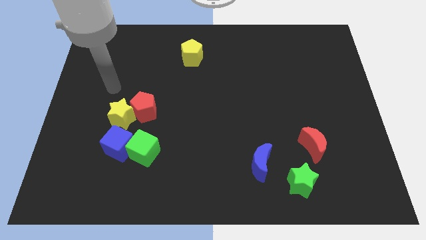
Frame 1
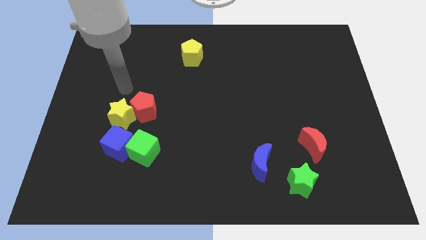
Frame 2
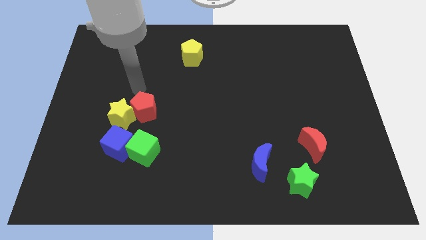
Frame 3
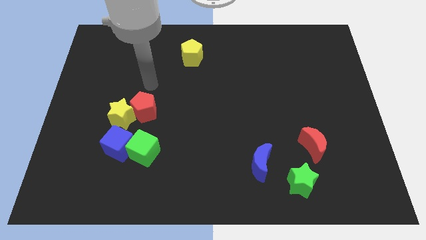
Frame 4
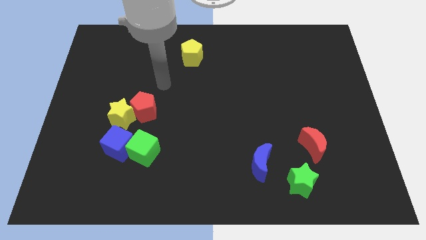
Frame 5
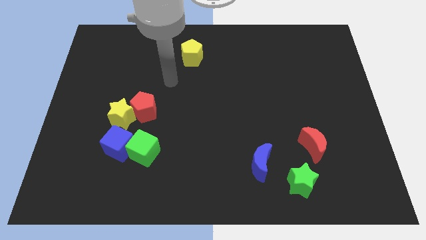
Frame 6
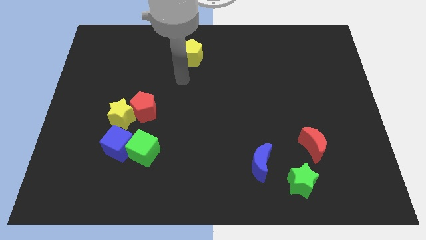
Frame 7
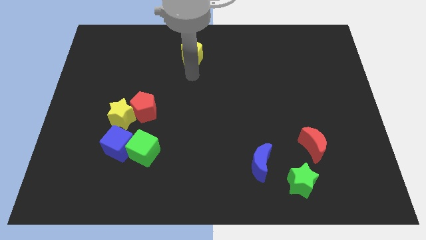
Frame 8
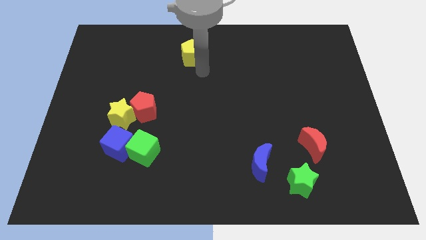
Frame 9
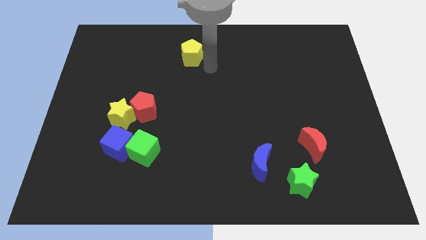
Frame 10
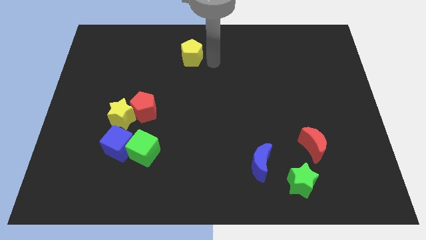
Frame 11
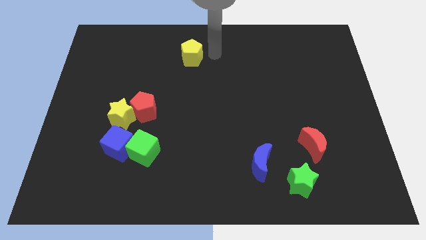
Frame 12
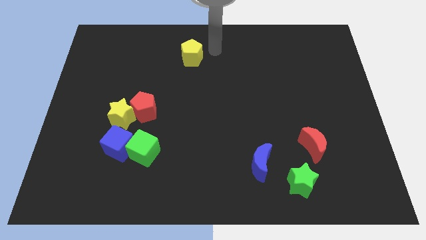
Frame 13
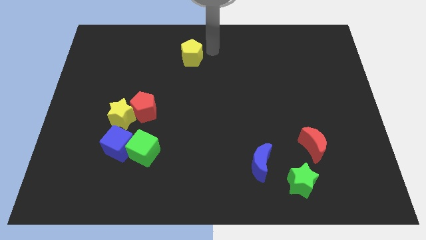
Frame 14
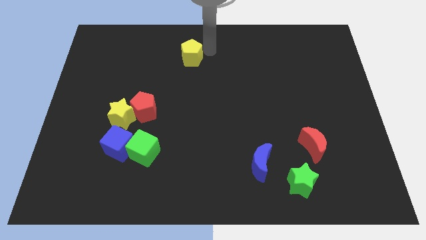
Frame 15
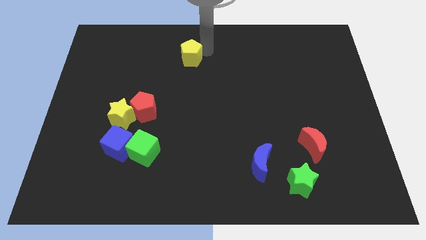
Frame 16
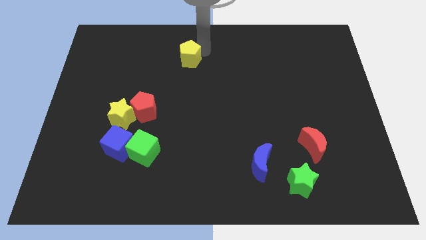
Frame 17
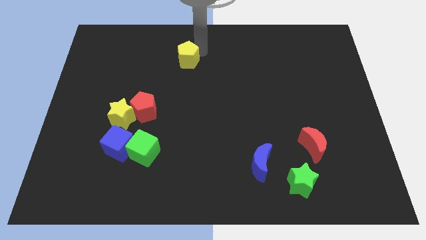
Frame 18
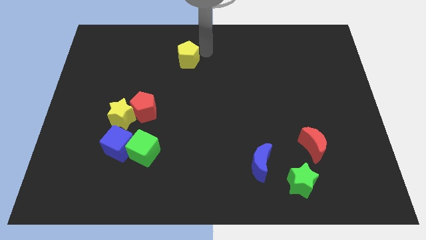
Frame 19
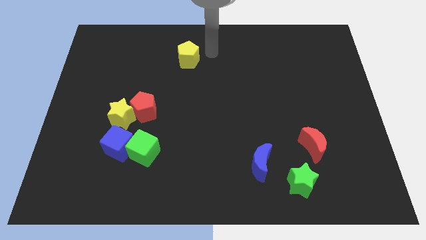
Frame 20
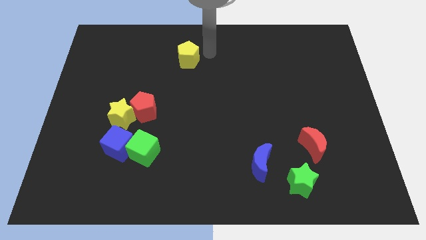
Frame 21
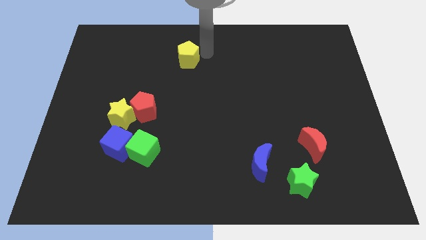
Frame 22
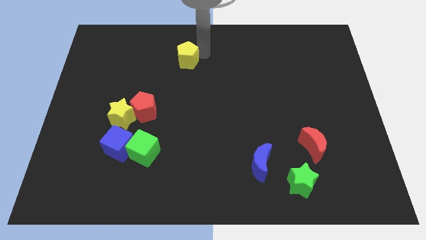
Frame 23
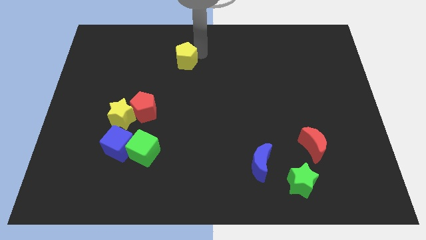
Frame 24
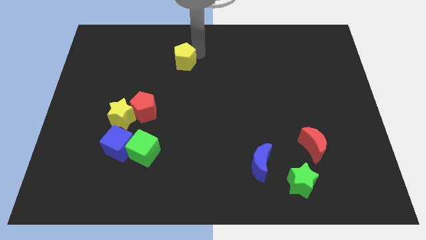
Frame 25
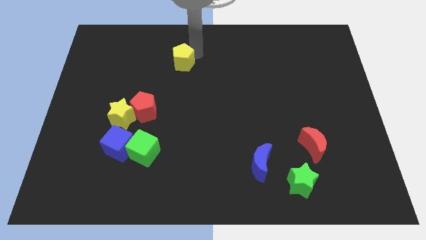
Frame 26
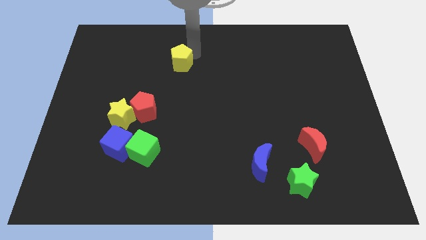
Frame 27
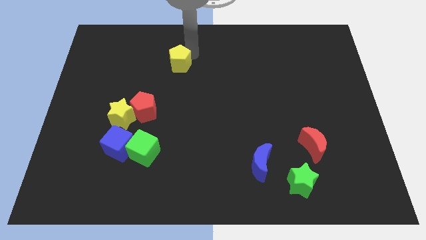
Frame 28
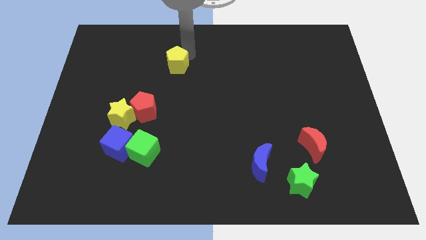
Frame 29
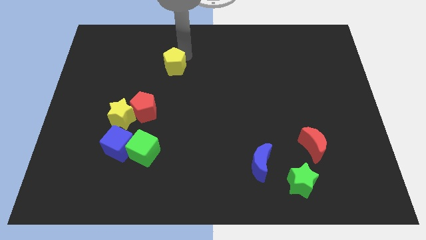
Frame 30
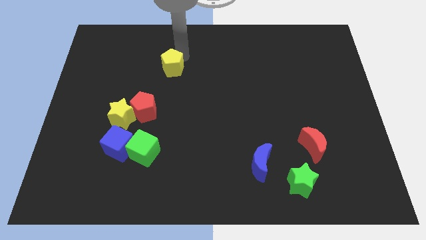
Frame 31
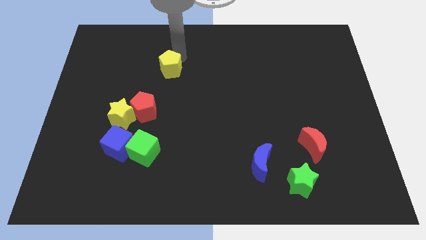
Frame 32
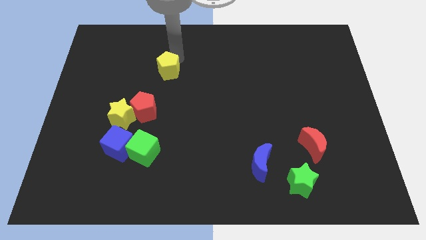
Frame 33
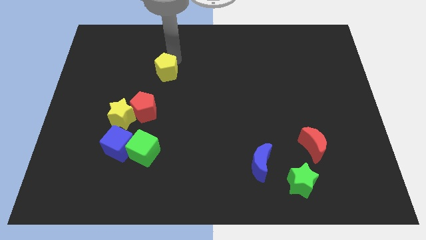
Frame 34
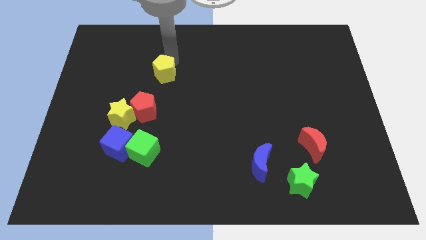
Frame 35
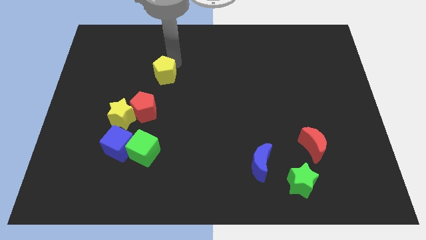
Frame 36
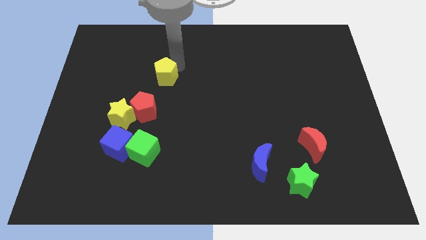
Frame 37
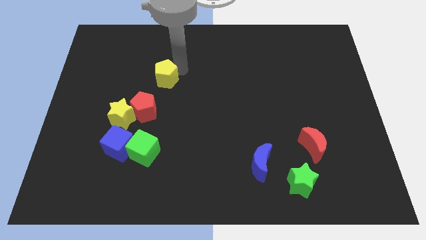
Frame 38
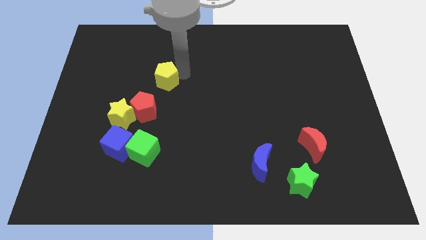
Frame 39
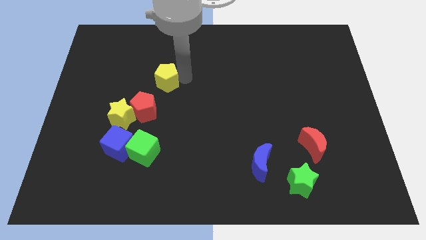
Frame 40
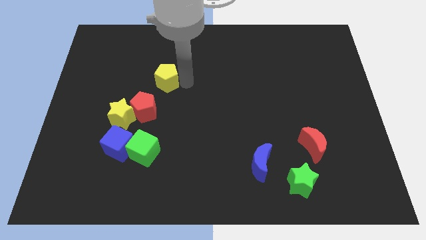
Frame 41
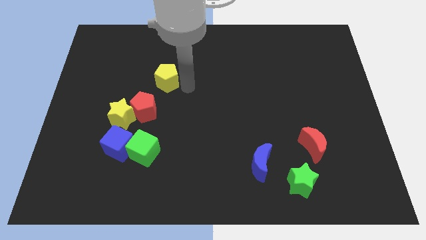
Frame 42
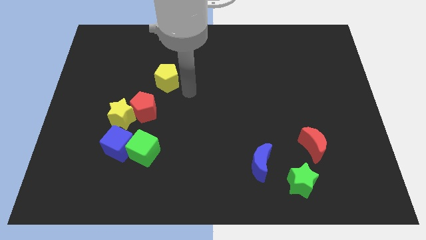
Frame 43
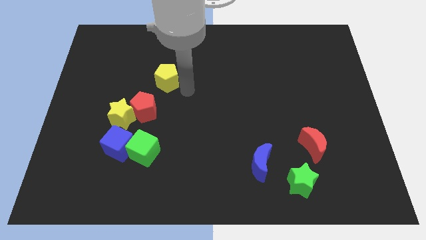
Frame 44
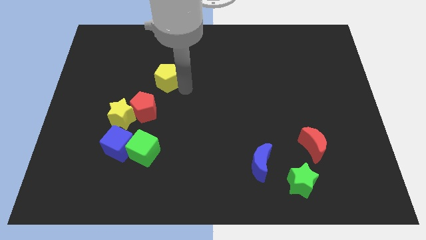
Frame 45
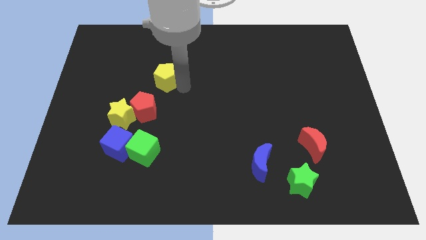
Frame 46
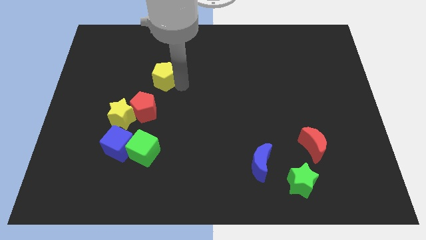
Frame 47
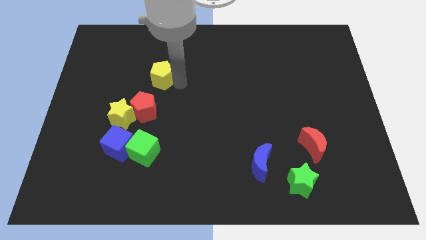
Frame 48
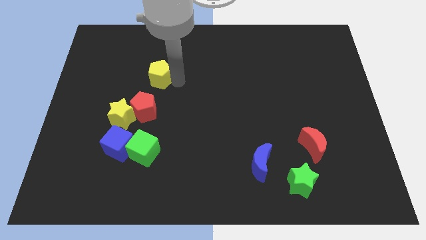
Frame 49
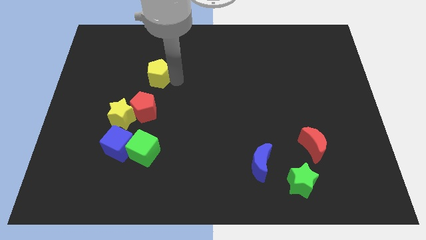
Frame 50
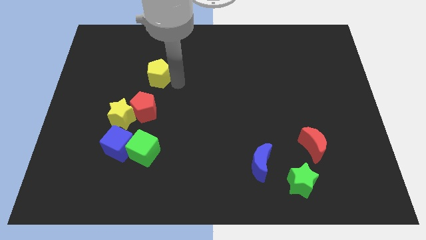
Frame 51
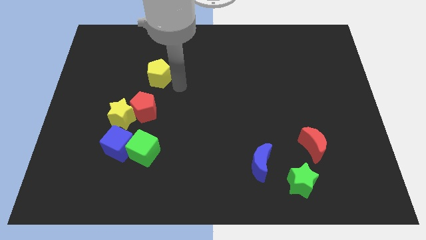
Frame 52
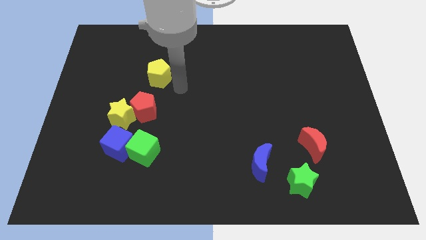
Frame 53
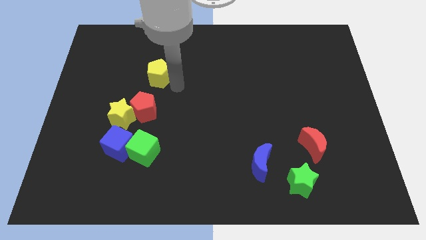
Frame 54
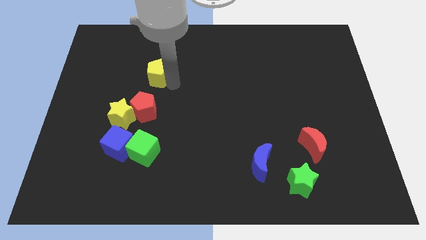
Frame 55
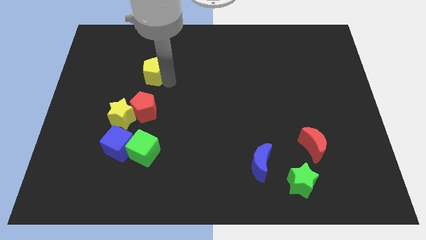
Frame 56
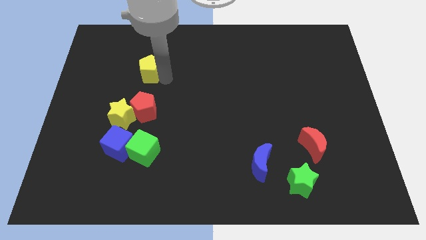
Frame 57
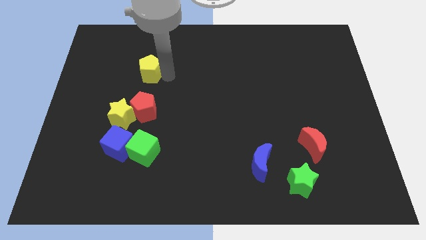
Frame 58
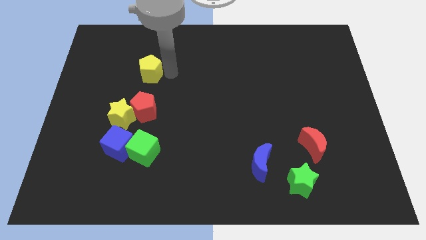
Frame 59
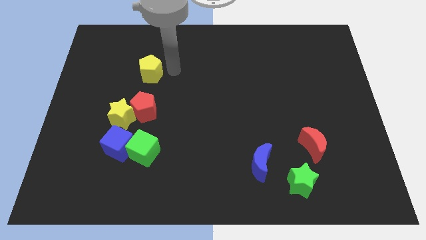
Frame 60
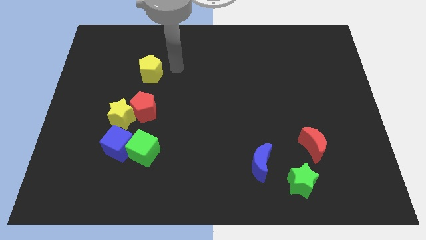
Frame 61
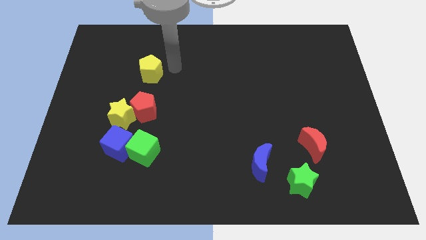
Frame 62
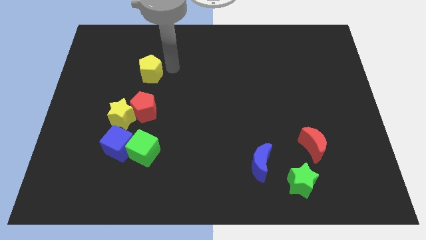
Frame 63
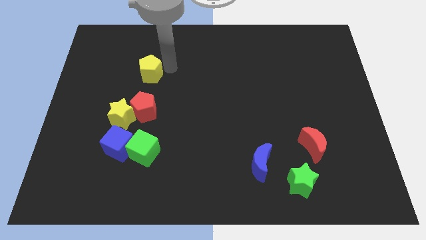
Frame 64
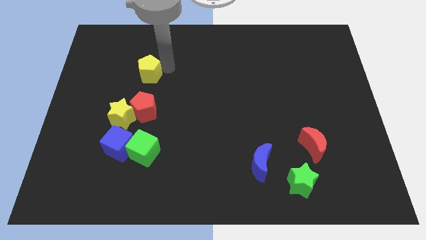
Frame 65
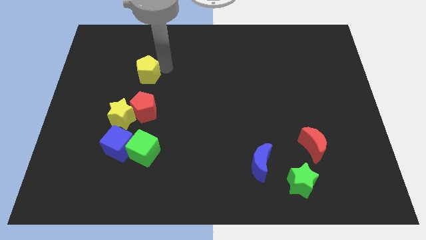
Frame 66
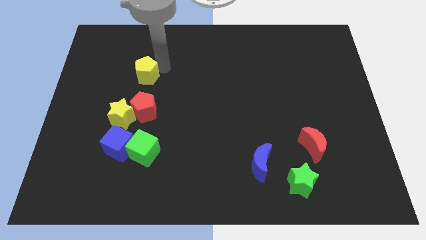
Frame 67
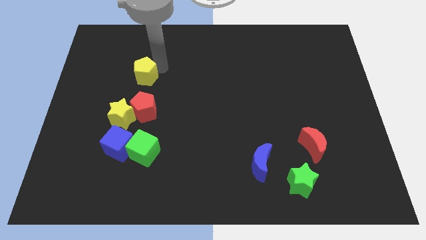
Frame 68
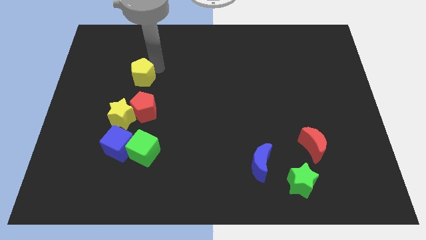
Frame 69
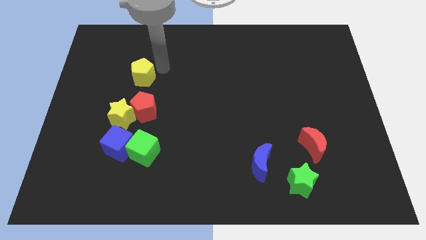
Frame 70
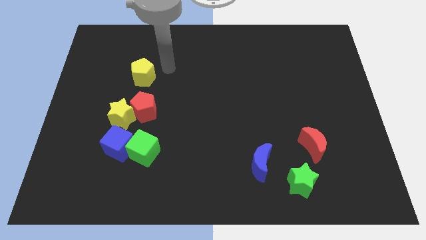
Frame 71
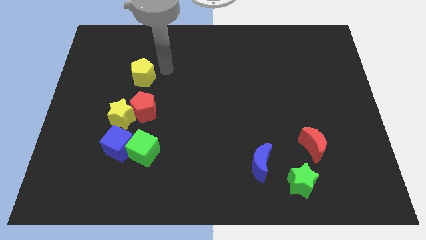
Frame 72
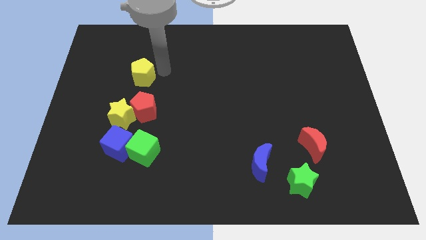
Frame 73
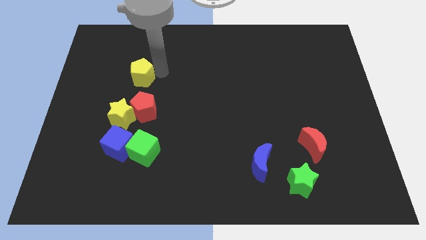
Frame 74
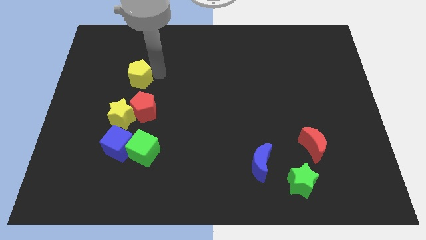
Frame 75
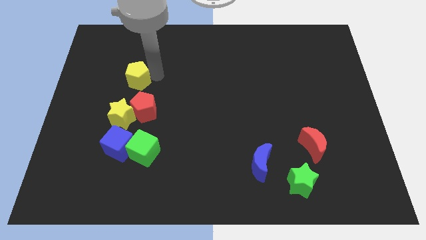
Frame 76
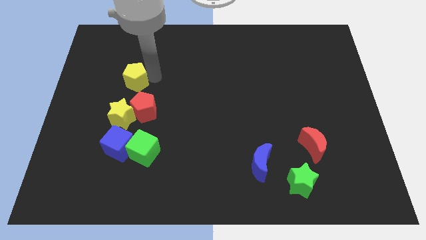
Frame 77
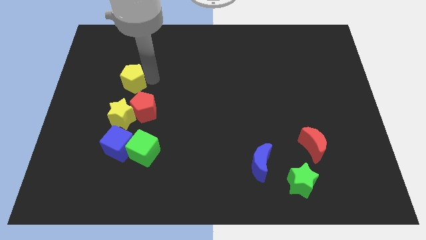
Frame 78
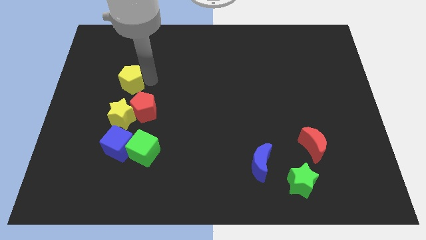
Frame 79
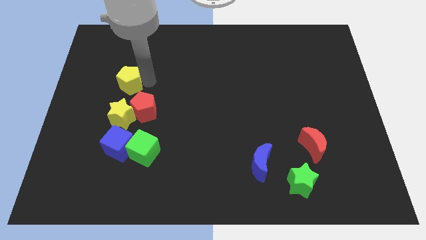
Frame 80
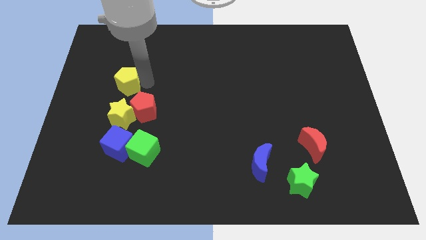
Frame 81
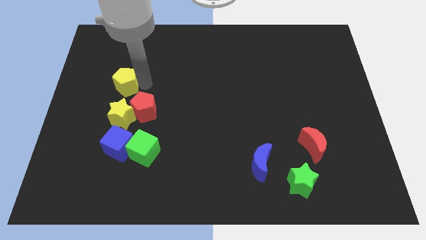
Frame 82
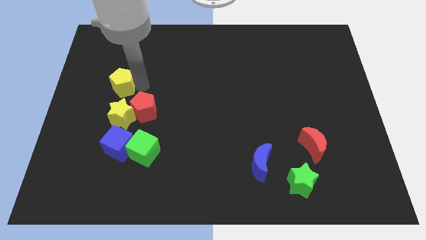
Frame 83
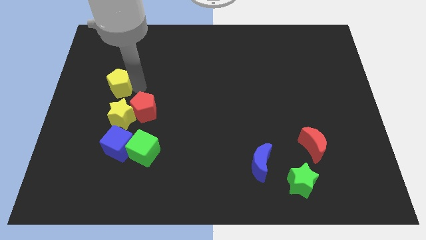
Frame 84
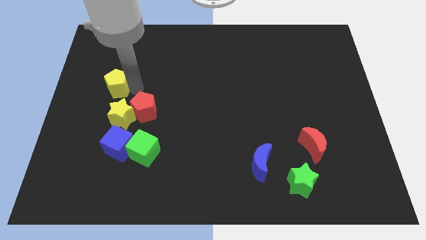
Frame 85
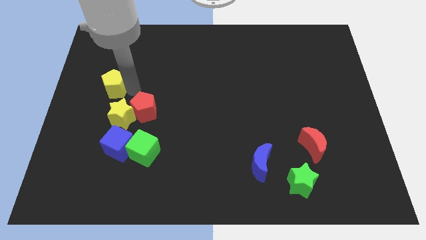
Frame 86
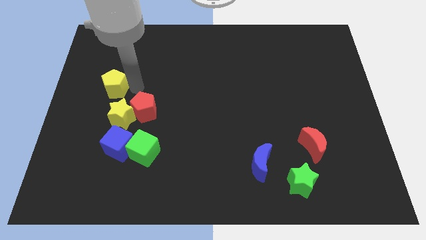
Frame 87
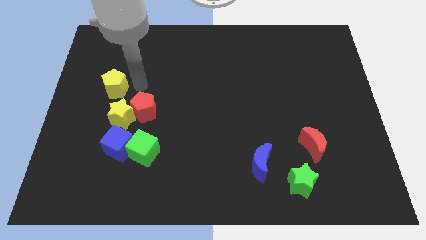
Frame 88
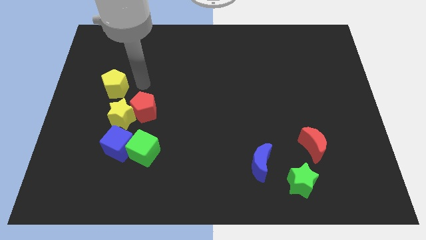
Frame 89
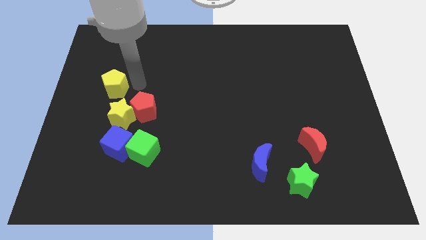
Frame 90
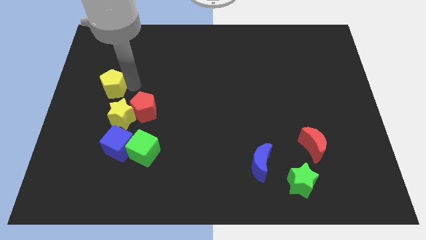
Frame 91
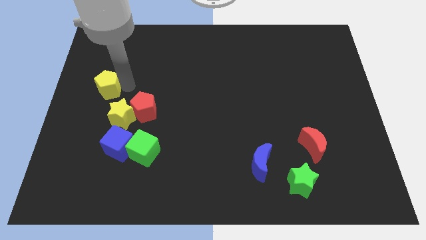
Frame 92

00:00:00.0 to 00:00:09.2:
move the yellow pentagon to the left side of the board
